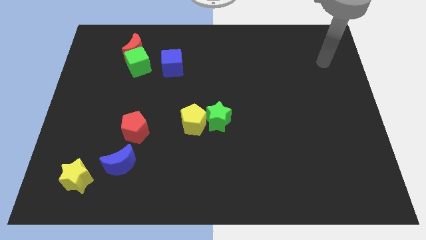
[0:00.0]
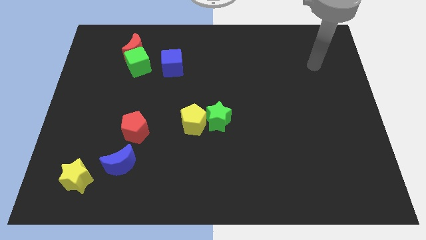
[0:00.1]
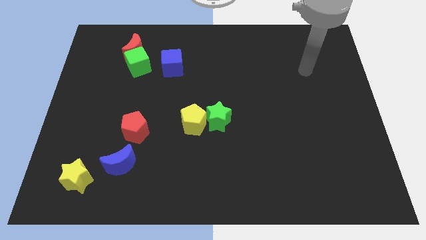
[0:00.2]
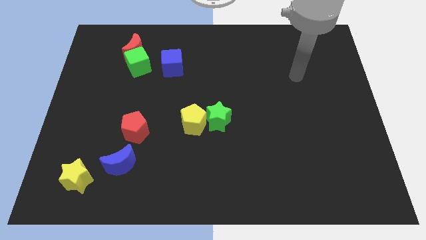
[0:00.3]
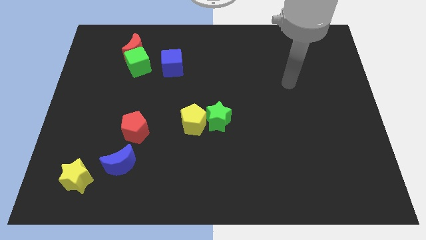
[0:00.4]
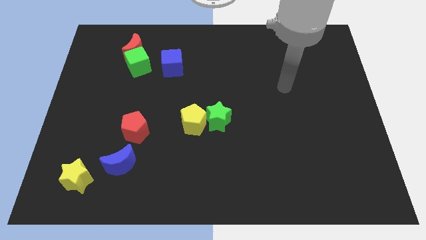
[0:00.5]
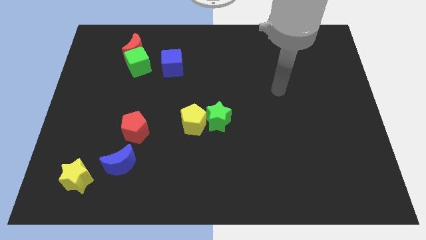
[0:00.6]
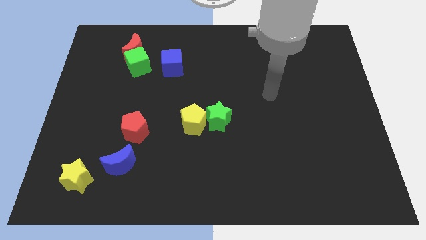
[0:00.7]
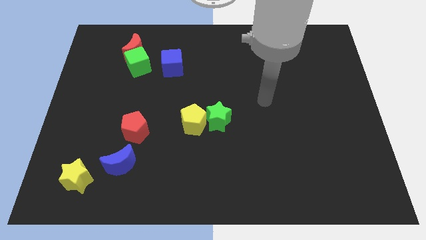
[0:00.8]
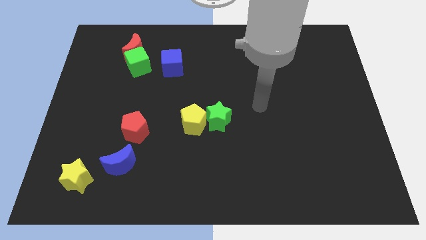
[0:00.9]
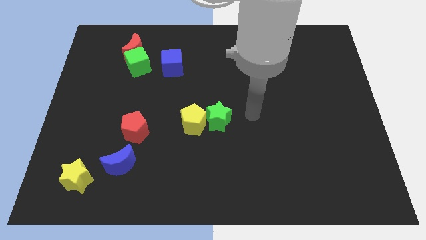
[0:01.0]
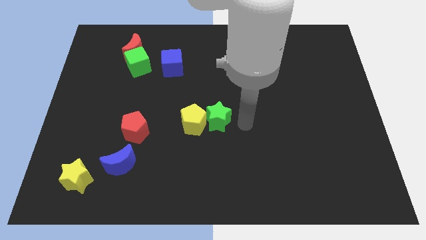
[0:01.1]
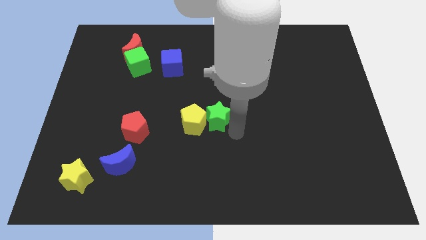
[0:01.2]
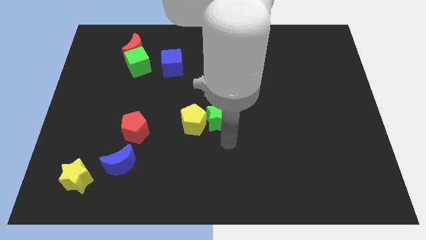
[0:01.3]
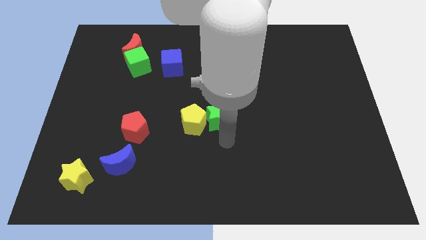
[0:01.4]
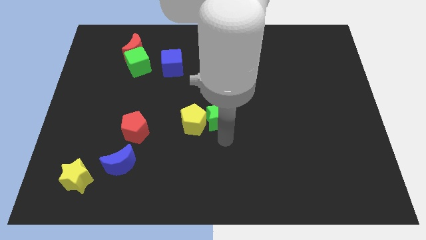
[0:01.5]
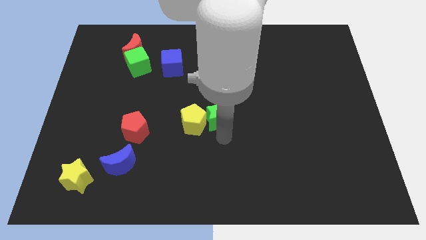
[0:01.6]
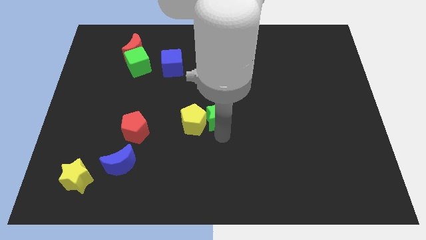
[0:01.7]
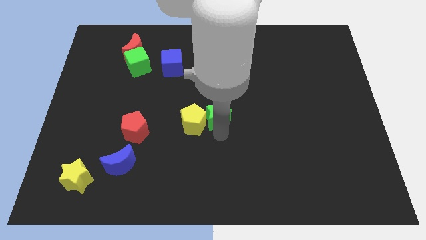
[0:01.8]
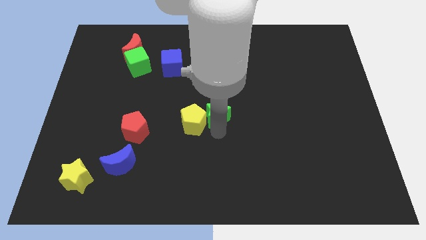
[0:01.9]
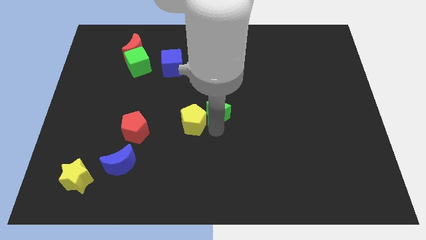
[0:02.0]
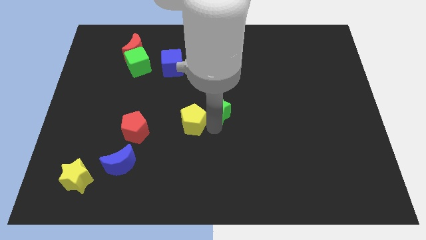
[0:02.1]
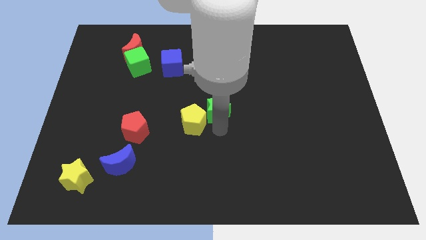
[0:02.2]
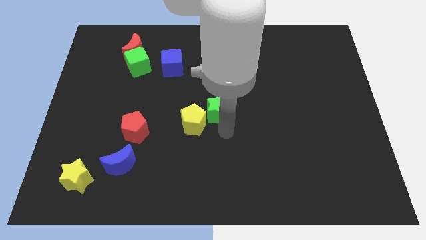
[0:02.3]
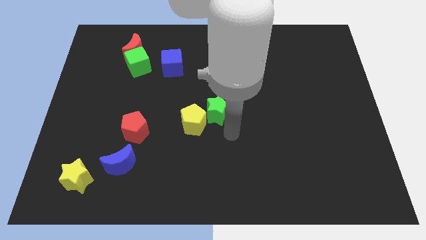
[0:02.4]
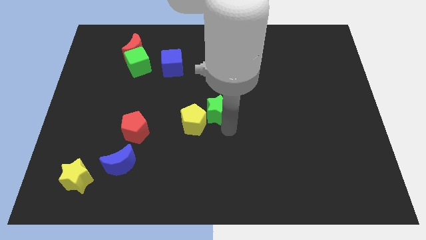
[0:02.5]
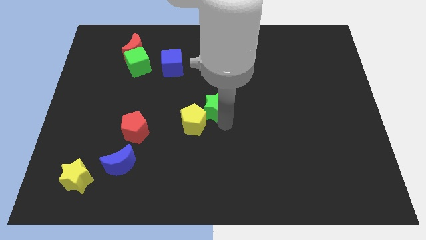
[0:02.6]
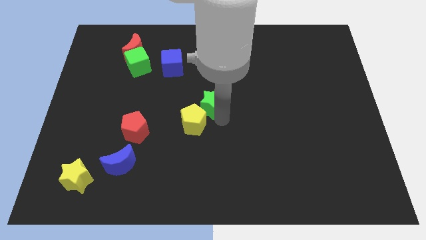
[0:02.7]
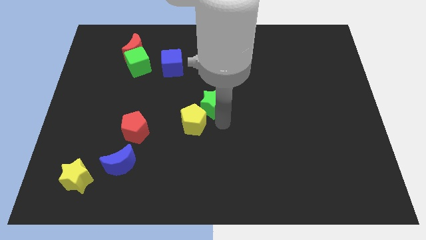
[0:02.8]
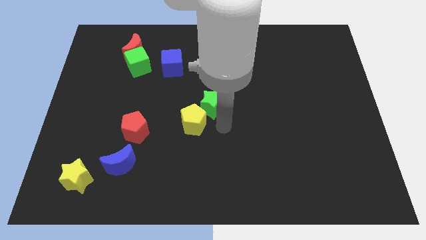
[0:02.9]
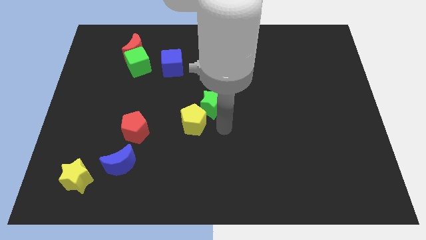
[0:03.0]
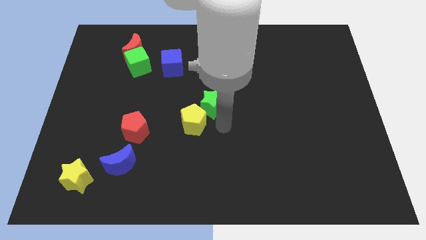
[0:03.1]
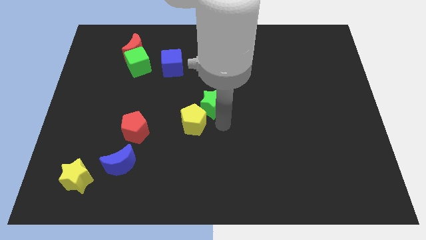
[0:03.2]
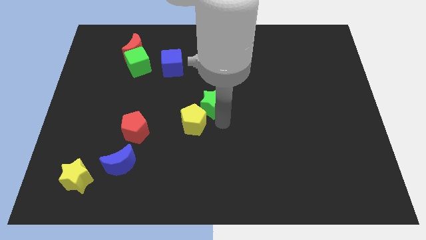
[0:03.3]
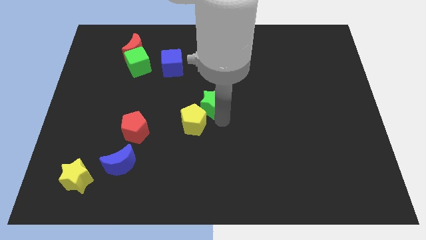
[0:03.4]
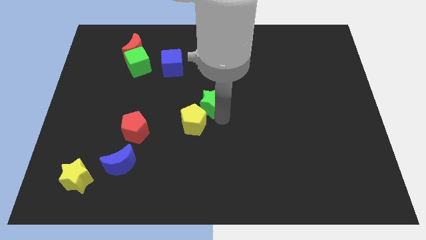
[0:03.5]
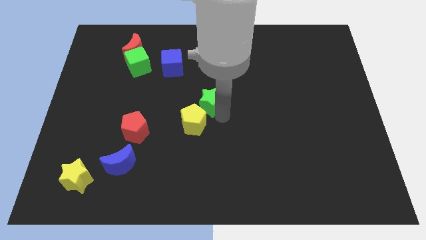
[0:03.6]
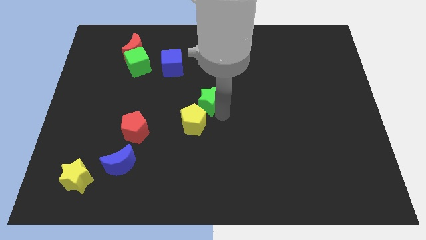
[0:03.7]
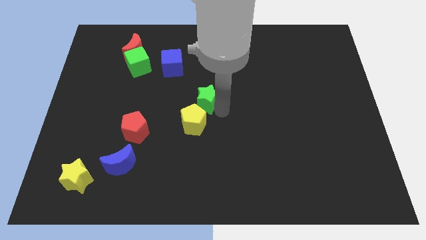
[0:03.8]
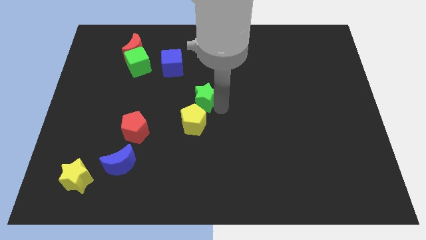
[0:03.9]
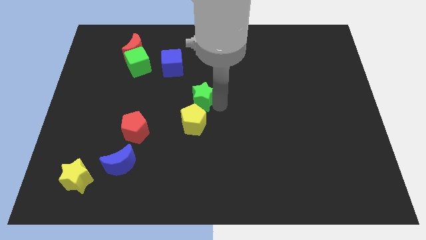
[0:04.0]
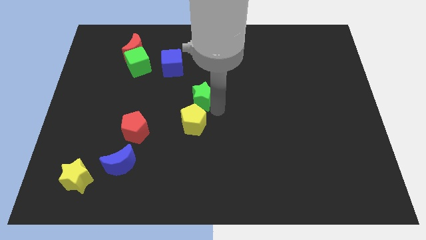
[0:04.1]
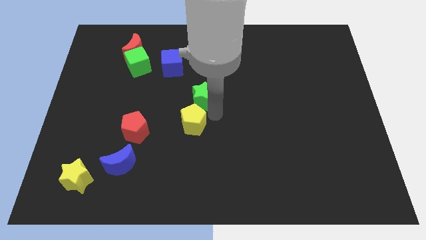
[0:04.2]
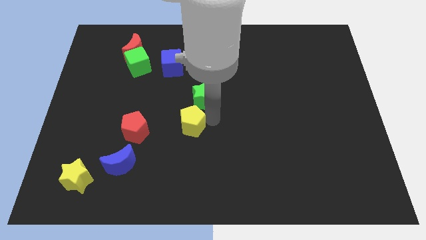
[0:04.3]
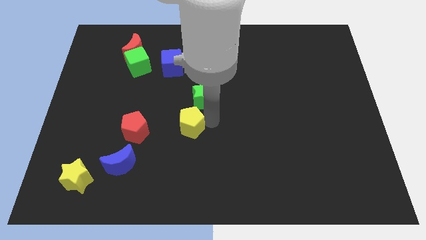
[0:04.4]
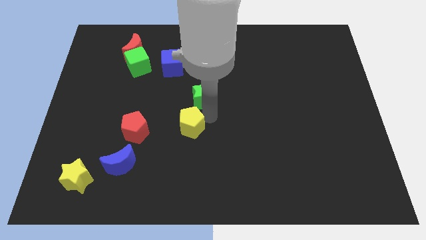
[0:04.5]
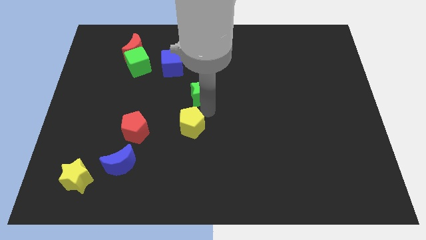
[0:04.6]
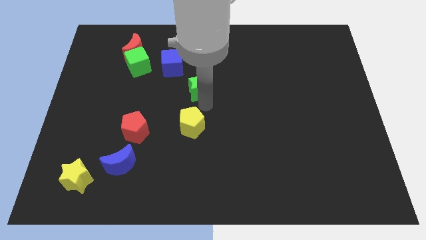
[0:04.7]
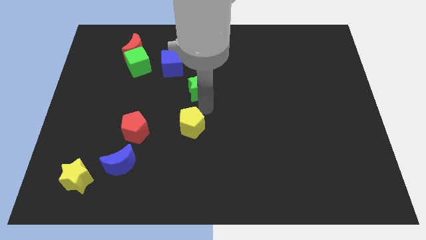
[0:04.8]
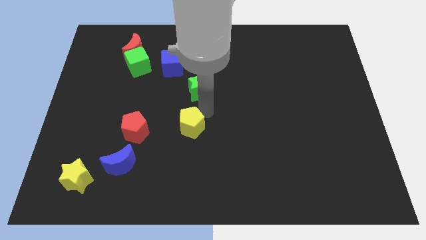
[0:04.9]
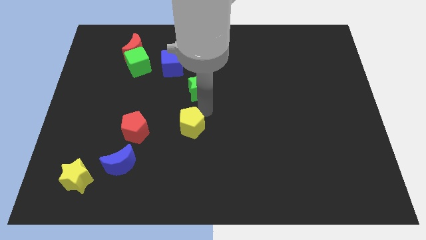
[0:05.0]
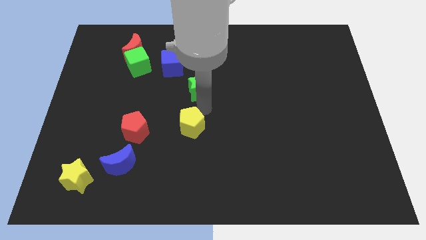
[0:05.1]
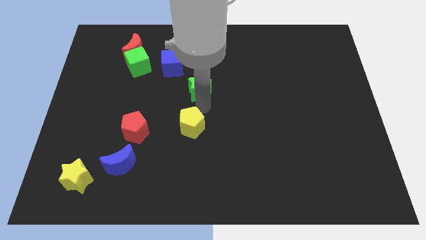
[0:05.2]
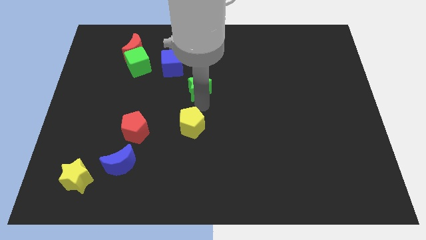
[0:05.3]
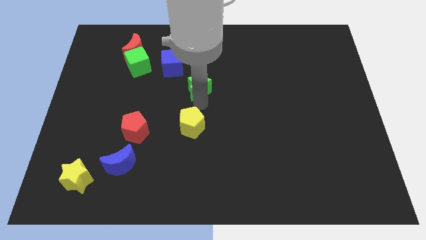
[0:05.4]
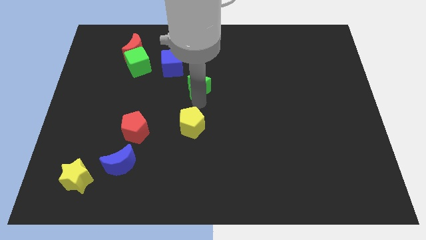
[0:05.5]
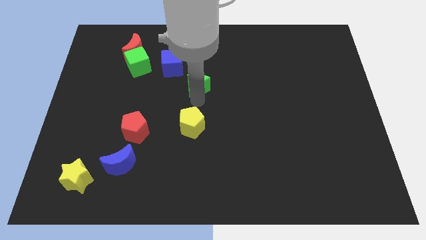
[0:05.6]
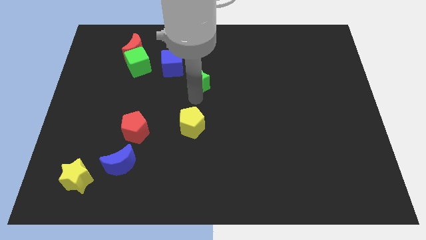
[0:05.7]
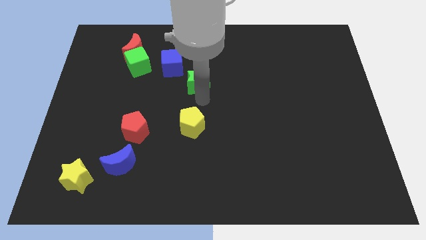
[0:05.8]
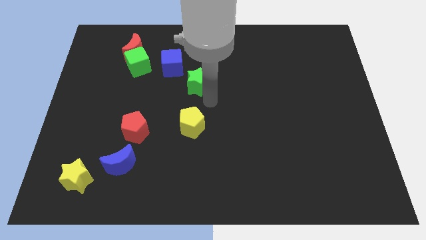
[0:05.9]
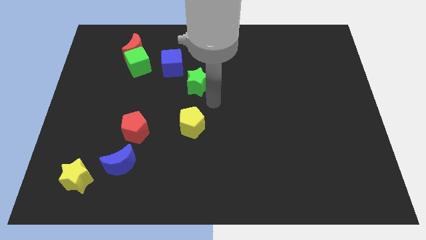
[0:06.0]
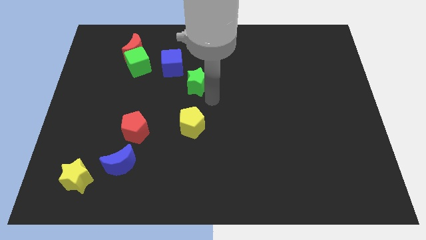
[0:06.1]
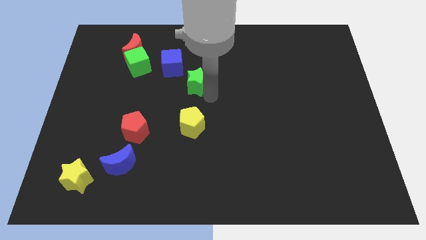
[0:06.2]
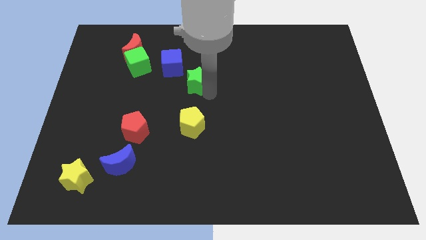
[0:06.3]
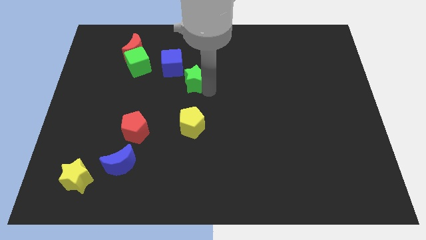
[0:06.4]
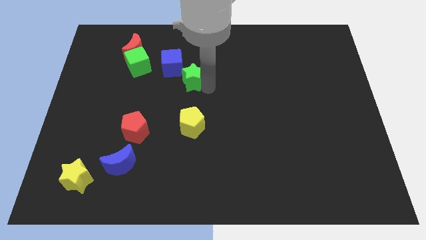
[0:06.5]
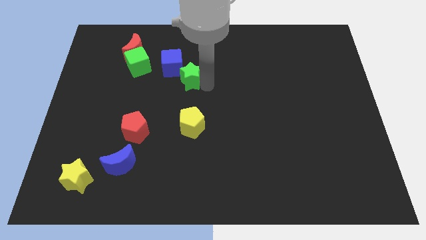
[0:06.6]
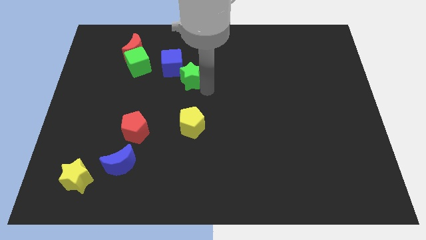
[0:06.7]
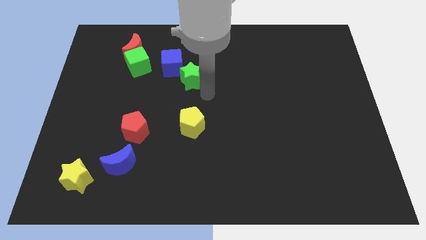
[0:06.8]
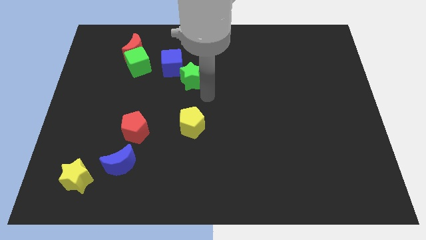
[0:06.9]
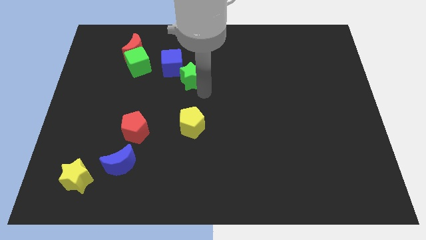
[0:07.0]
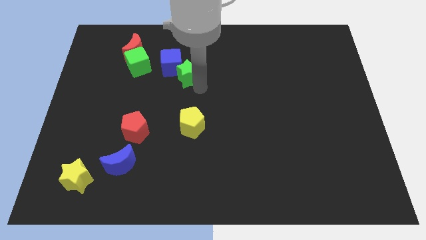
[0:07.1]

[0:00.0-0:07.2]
move the green star right of the green cube

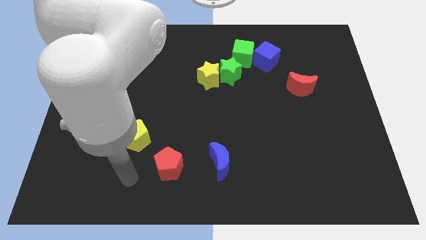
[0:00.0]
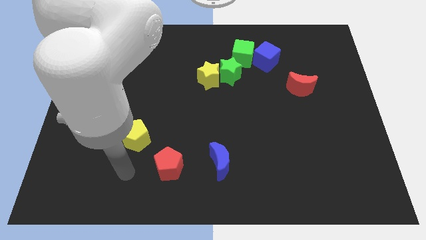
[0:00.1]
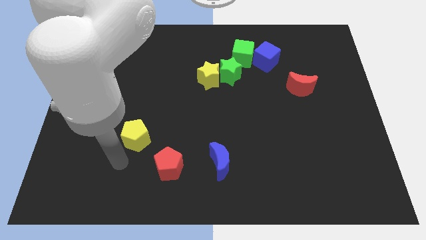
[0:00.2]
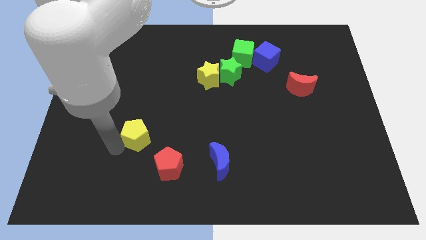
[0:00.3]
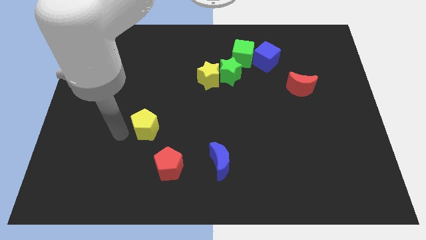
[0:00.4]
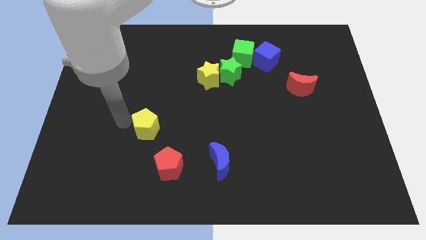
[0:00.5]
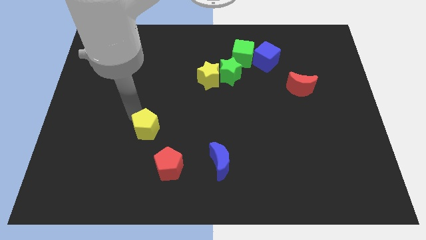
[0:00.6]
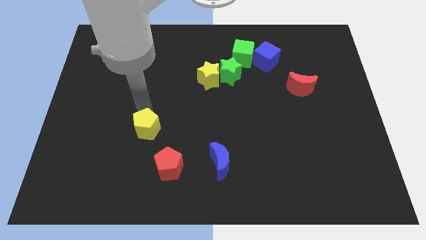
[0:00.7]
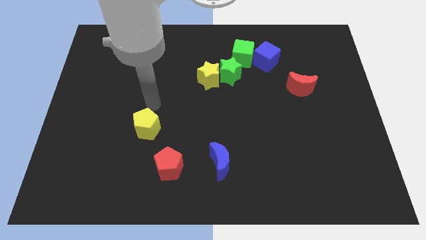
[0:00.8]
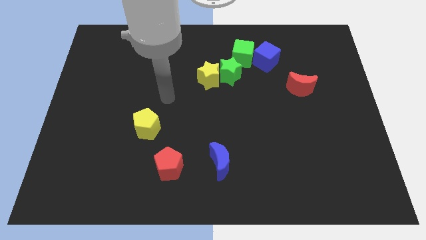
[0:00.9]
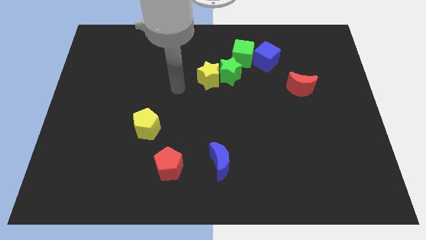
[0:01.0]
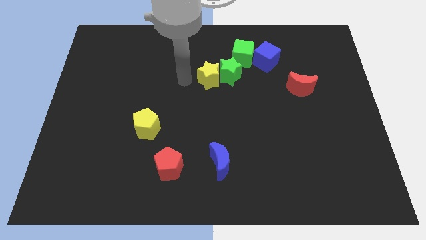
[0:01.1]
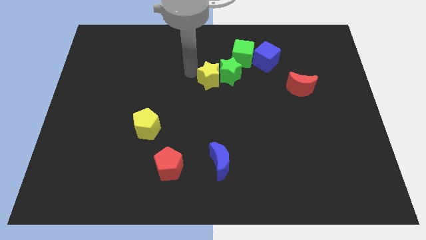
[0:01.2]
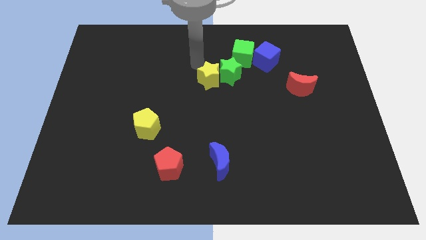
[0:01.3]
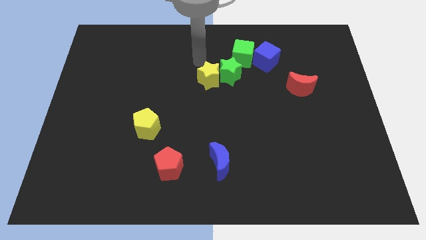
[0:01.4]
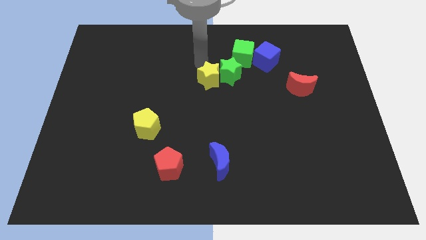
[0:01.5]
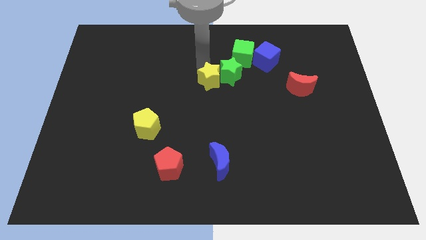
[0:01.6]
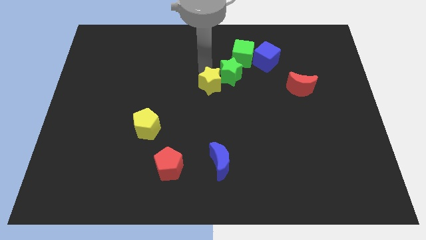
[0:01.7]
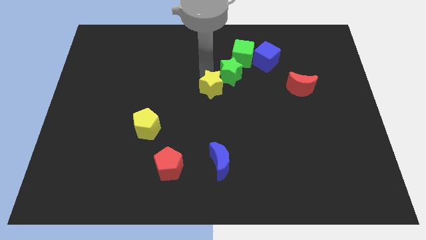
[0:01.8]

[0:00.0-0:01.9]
push the yellow star to the bottom of the green star
